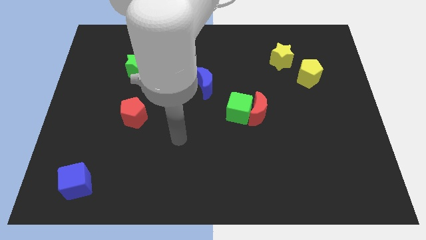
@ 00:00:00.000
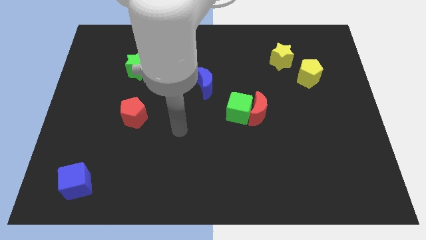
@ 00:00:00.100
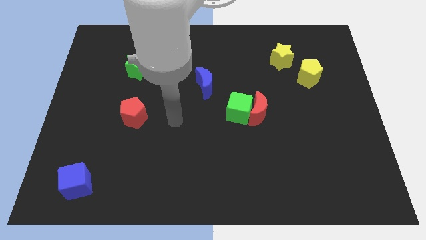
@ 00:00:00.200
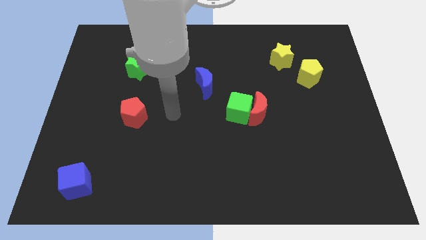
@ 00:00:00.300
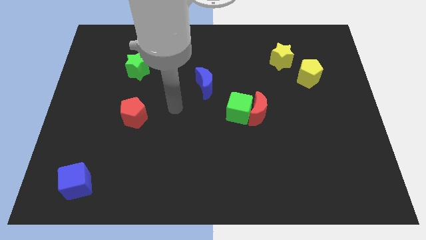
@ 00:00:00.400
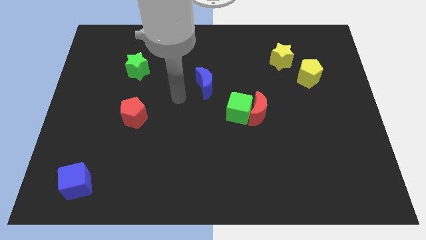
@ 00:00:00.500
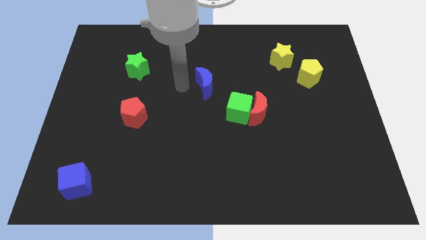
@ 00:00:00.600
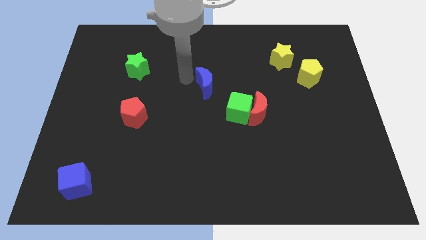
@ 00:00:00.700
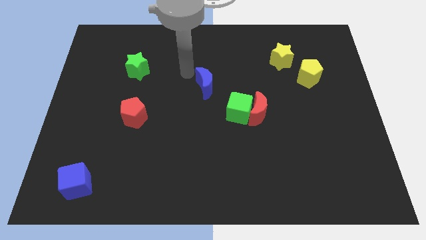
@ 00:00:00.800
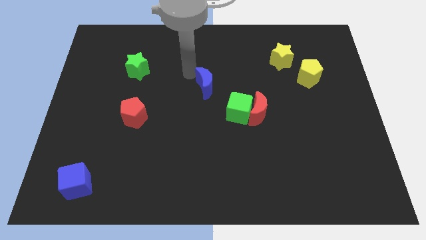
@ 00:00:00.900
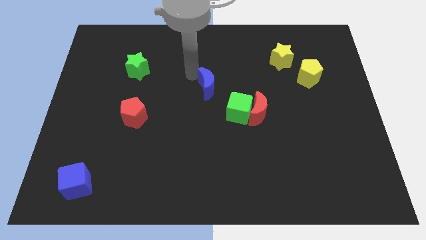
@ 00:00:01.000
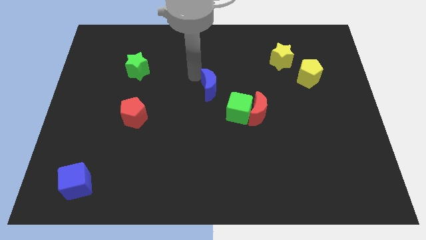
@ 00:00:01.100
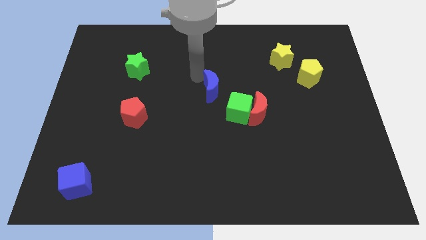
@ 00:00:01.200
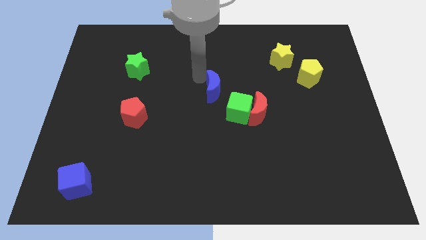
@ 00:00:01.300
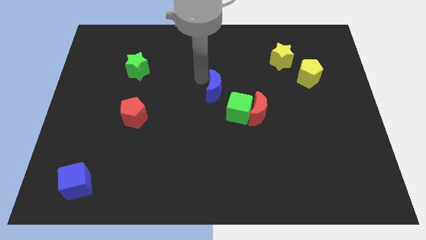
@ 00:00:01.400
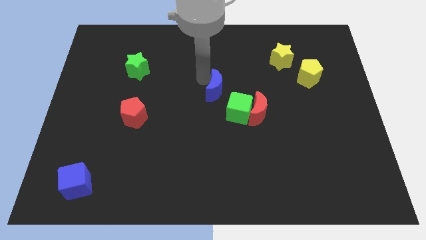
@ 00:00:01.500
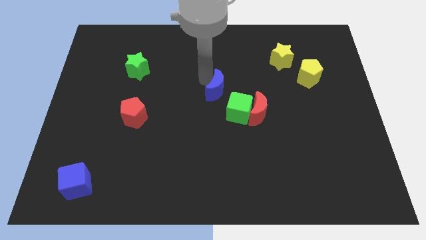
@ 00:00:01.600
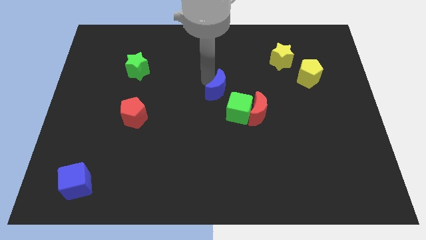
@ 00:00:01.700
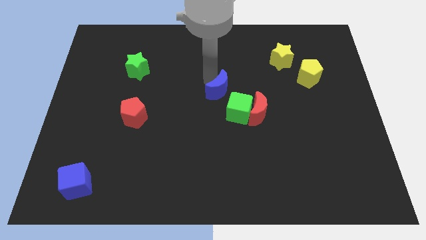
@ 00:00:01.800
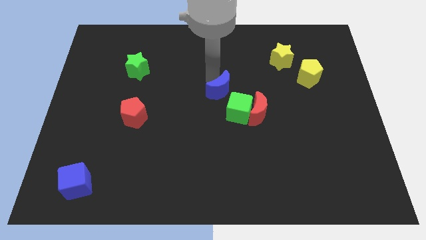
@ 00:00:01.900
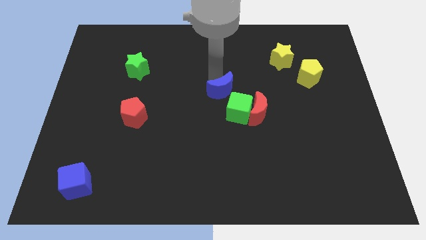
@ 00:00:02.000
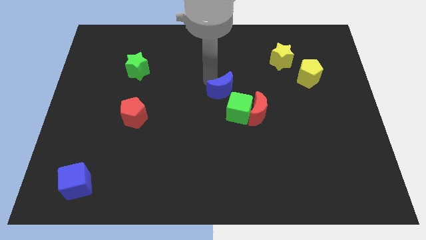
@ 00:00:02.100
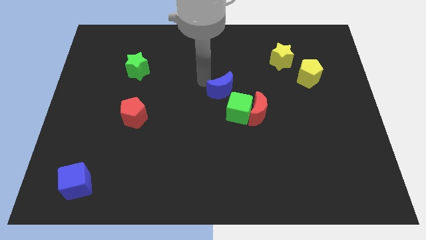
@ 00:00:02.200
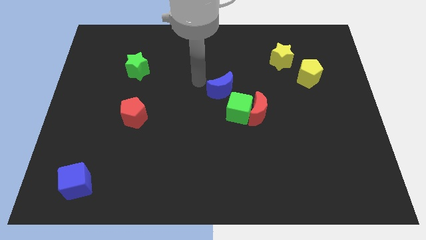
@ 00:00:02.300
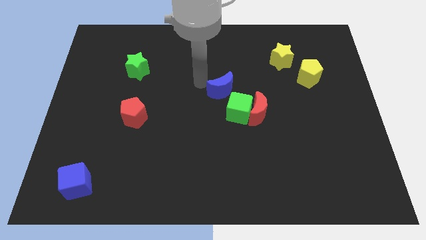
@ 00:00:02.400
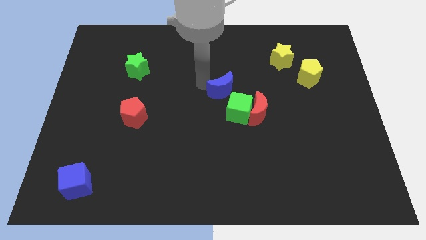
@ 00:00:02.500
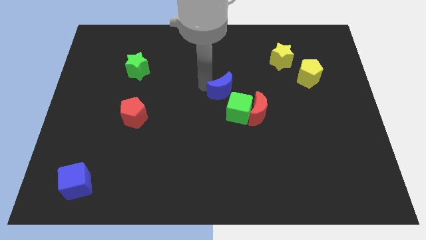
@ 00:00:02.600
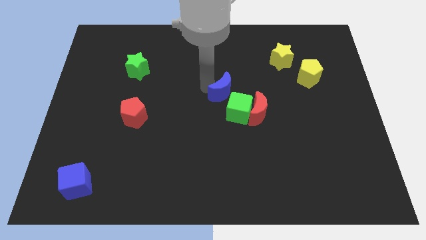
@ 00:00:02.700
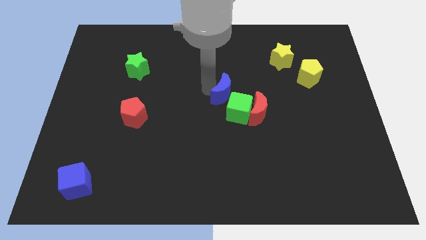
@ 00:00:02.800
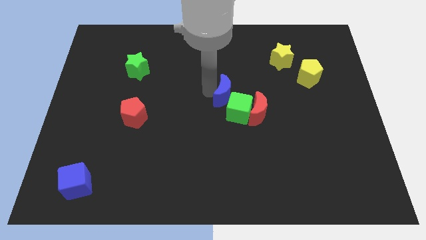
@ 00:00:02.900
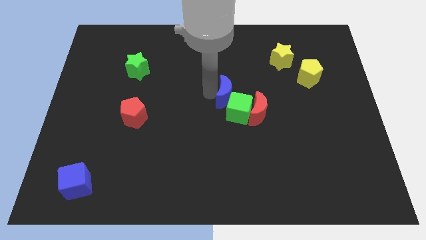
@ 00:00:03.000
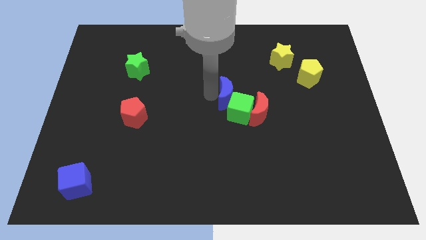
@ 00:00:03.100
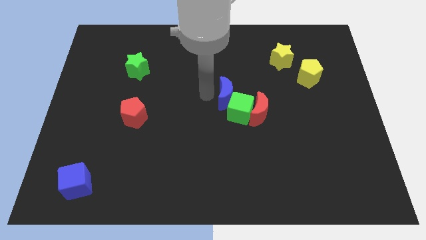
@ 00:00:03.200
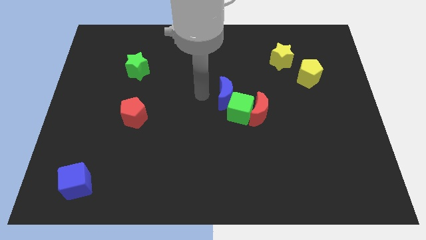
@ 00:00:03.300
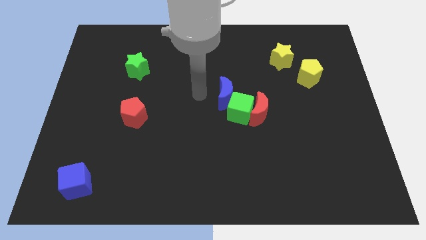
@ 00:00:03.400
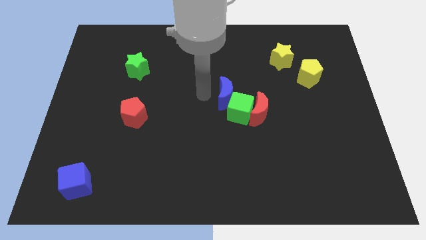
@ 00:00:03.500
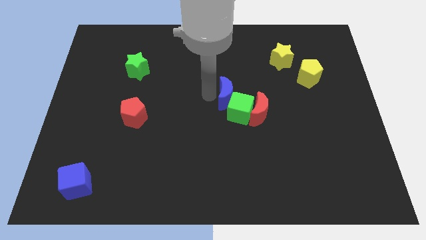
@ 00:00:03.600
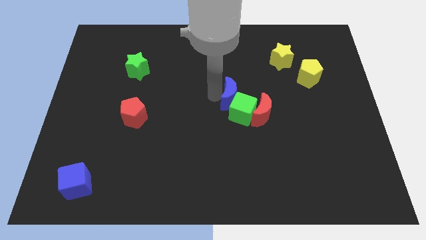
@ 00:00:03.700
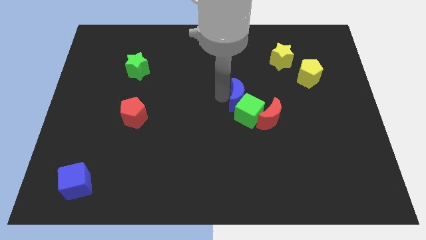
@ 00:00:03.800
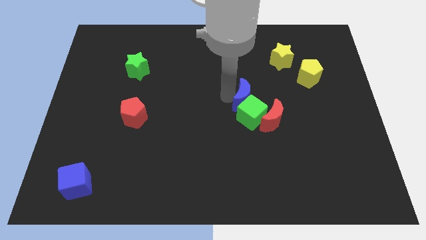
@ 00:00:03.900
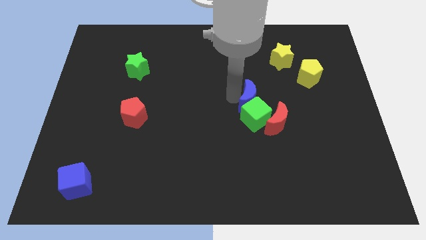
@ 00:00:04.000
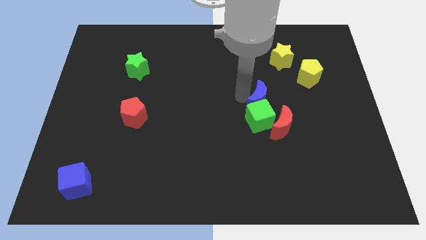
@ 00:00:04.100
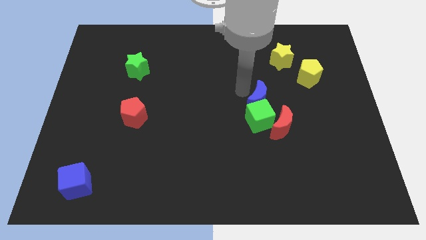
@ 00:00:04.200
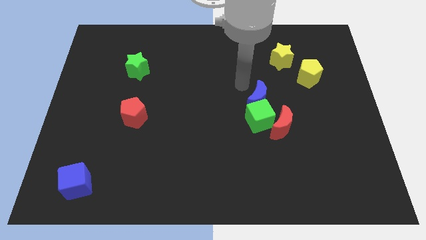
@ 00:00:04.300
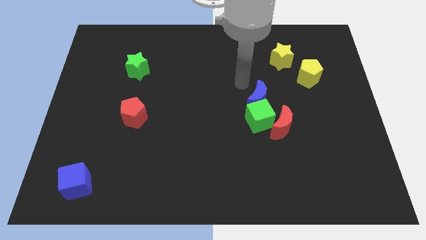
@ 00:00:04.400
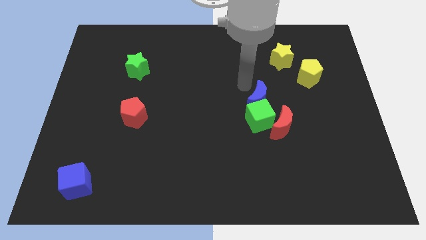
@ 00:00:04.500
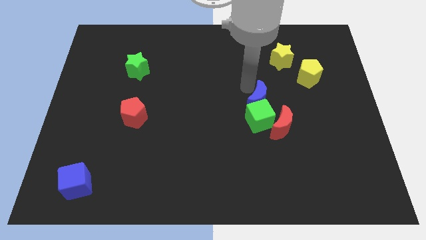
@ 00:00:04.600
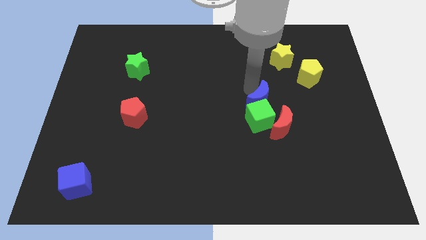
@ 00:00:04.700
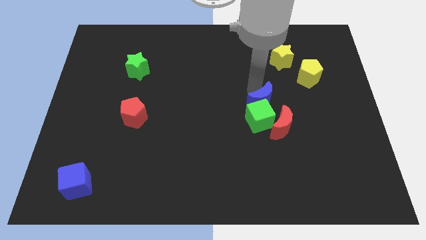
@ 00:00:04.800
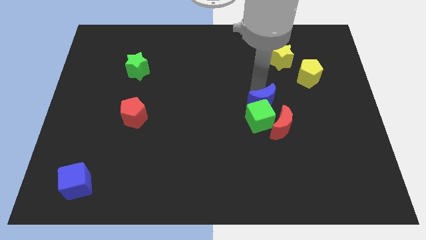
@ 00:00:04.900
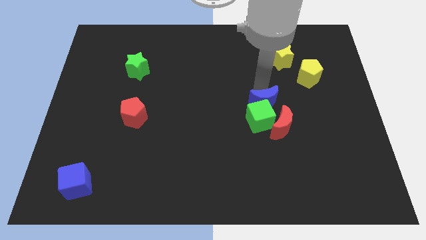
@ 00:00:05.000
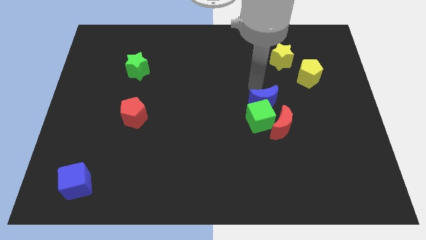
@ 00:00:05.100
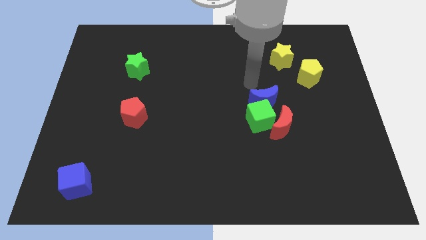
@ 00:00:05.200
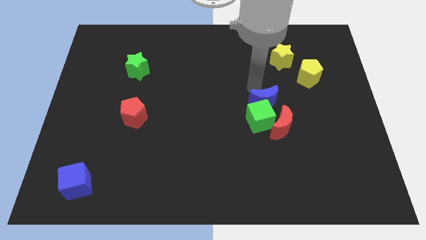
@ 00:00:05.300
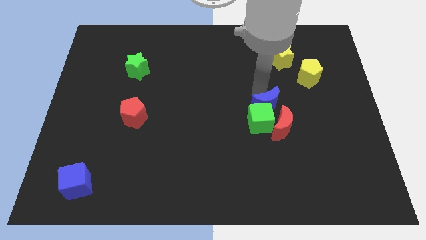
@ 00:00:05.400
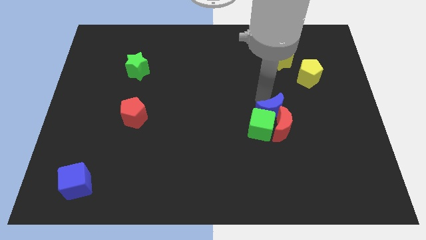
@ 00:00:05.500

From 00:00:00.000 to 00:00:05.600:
move the blue moon next to the red moon

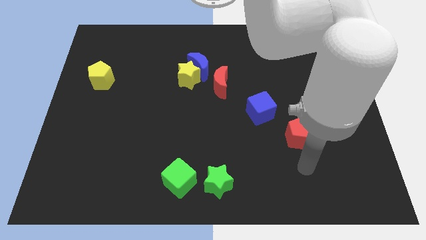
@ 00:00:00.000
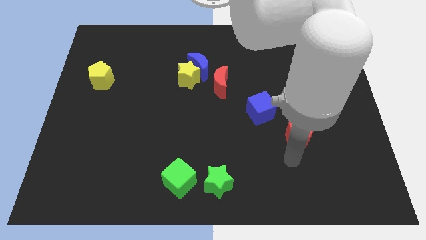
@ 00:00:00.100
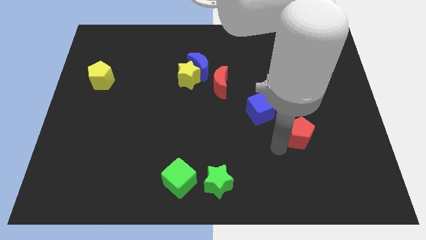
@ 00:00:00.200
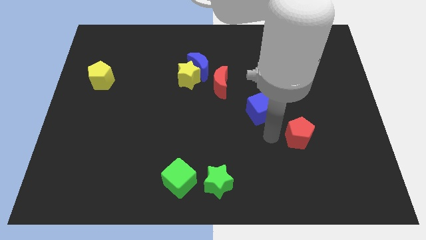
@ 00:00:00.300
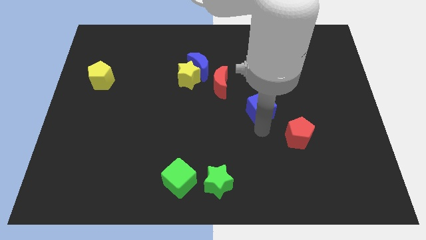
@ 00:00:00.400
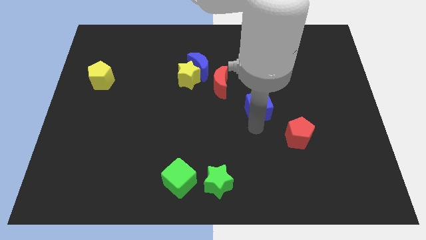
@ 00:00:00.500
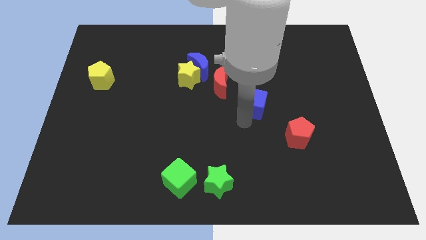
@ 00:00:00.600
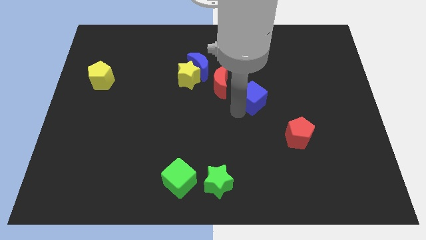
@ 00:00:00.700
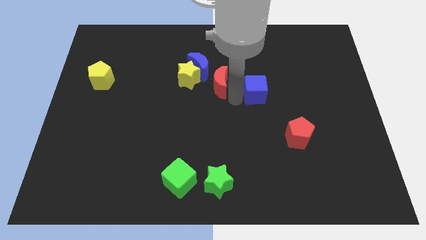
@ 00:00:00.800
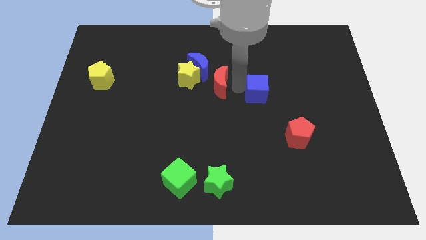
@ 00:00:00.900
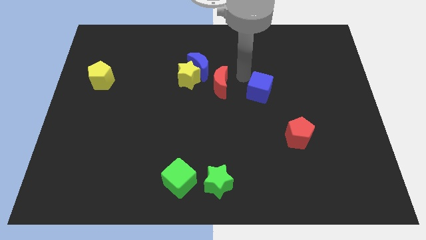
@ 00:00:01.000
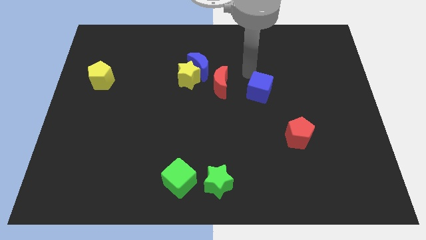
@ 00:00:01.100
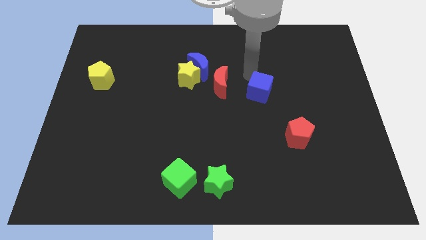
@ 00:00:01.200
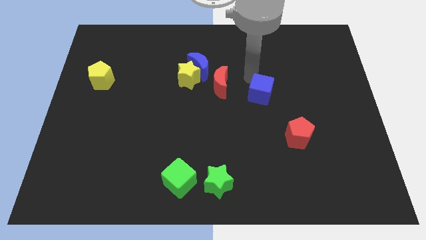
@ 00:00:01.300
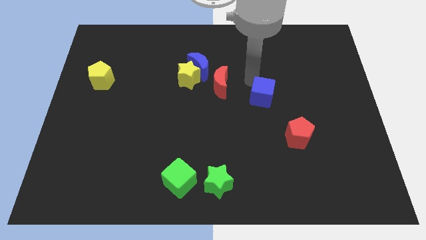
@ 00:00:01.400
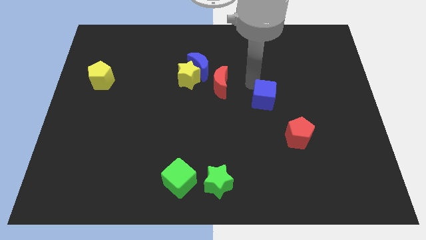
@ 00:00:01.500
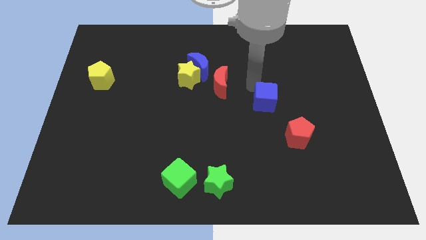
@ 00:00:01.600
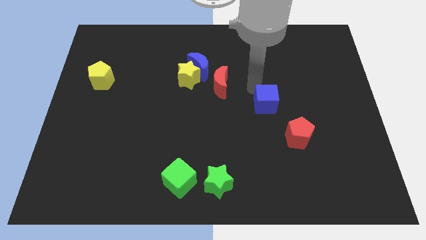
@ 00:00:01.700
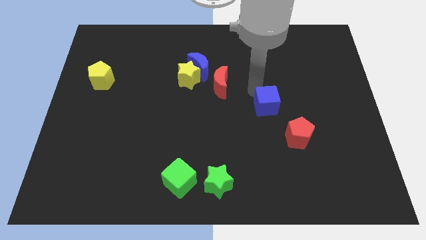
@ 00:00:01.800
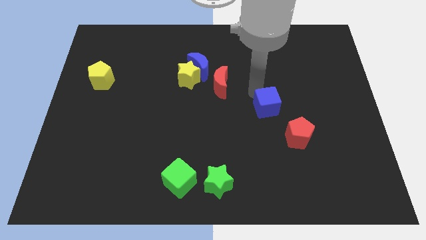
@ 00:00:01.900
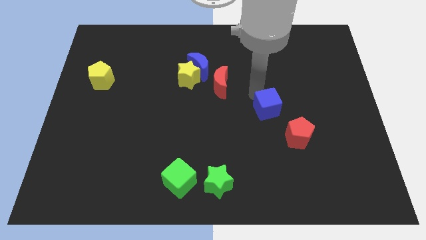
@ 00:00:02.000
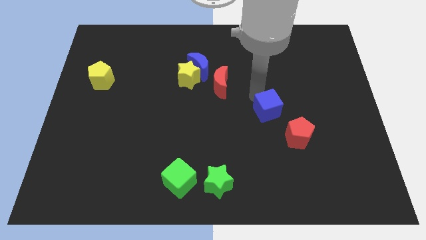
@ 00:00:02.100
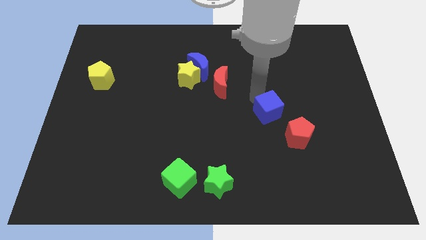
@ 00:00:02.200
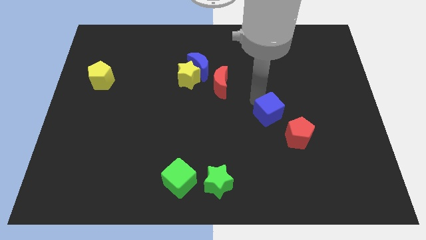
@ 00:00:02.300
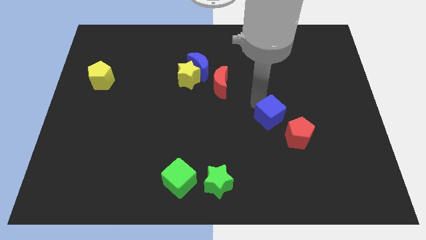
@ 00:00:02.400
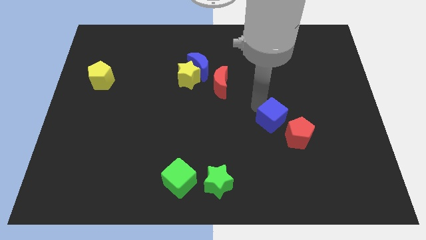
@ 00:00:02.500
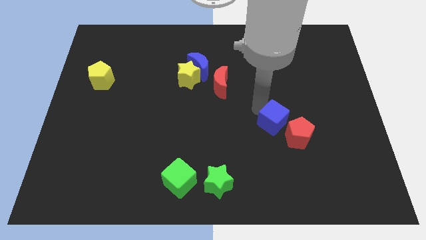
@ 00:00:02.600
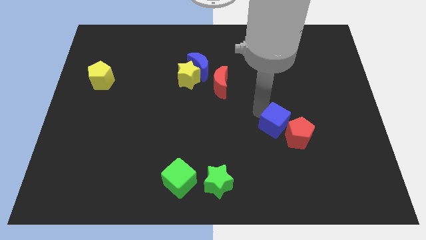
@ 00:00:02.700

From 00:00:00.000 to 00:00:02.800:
move the blue cube to the red pentagon
